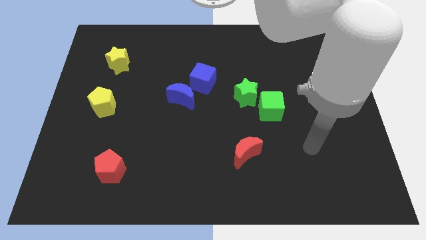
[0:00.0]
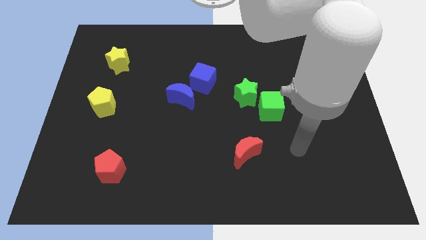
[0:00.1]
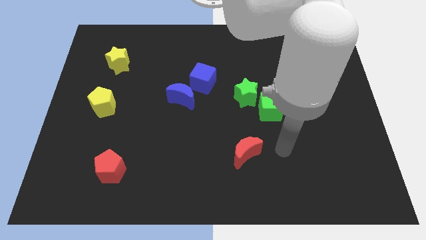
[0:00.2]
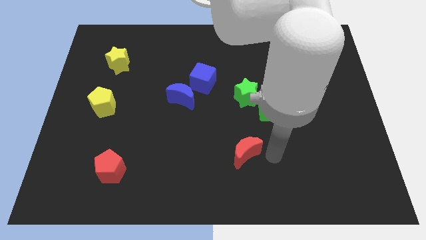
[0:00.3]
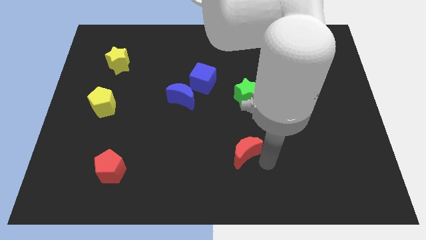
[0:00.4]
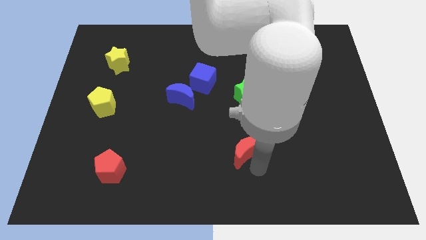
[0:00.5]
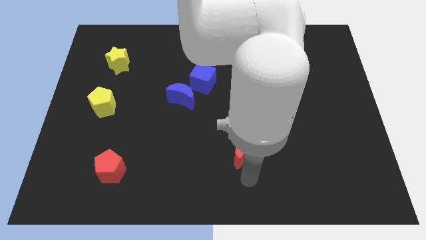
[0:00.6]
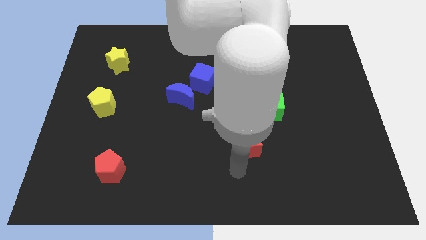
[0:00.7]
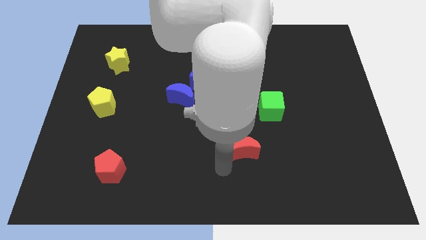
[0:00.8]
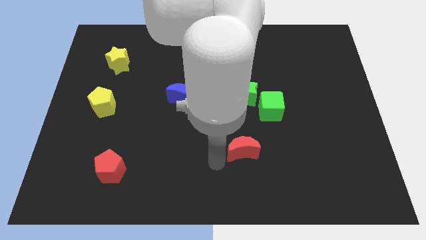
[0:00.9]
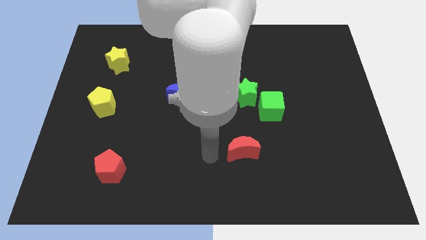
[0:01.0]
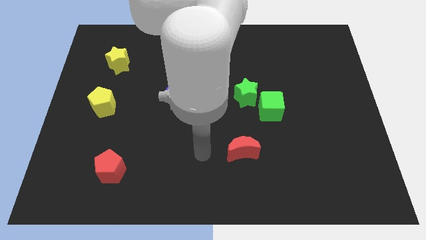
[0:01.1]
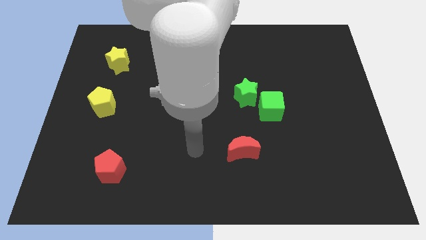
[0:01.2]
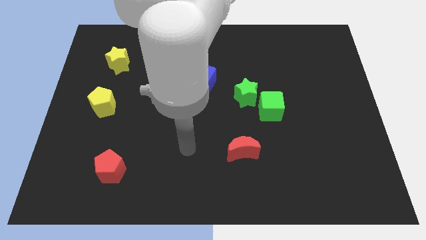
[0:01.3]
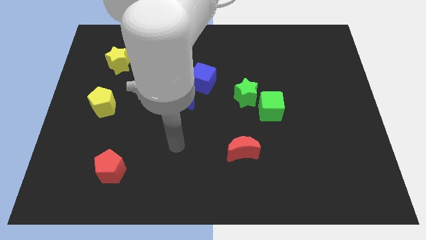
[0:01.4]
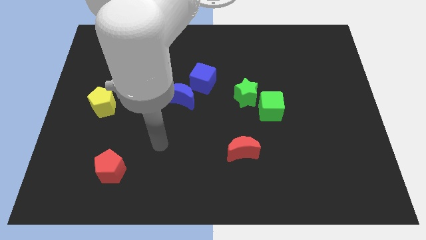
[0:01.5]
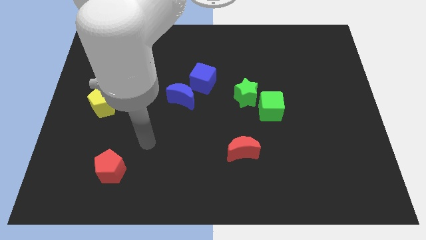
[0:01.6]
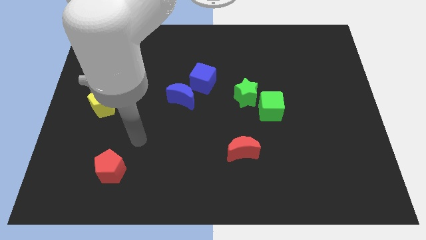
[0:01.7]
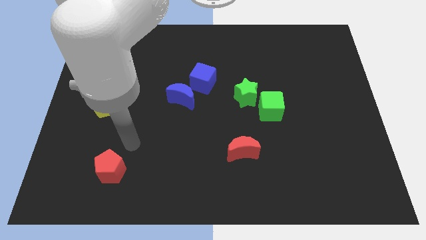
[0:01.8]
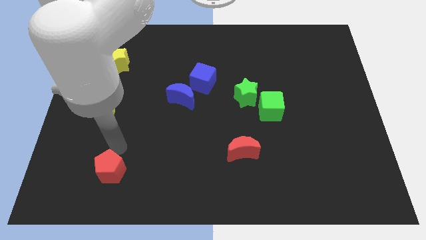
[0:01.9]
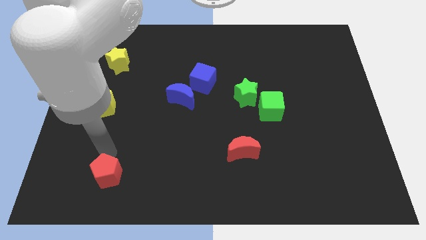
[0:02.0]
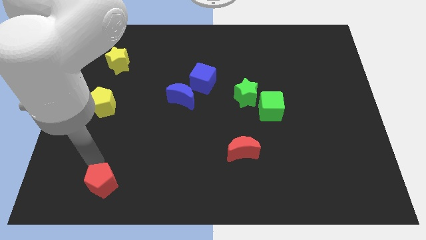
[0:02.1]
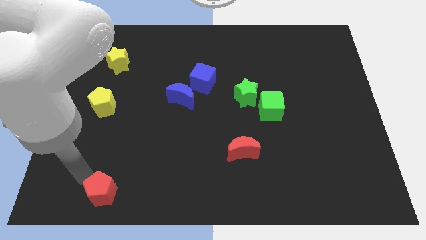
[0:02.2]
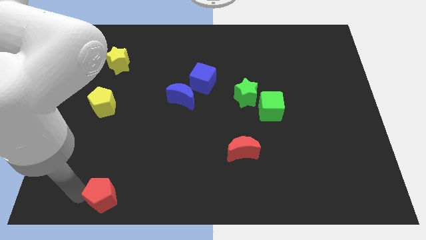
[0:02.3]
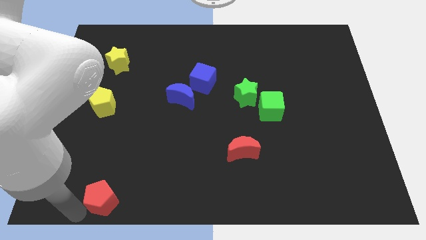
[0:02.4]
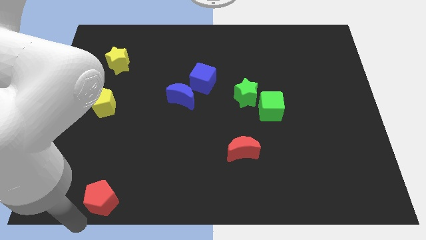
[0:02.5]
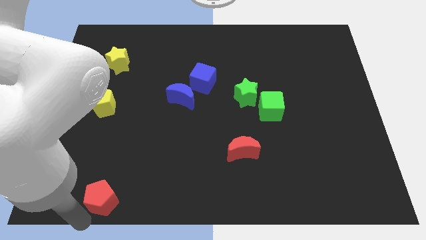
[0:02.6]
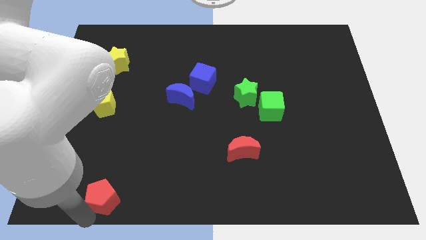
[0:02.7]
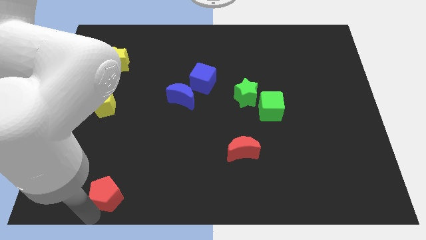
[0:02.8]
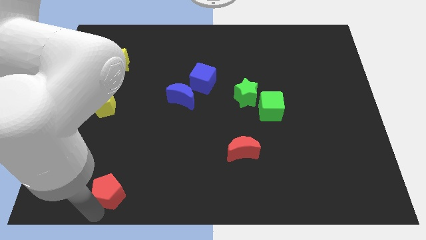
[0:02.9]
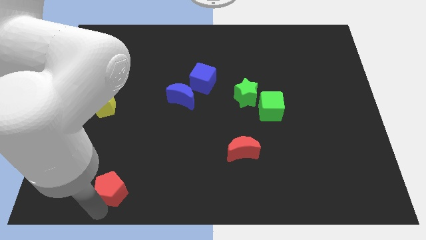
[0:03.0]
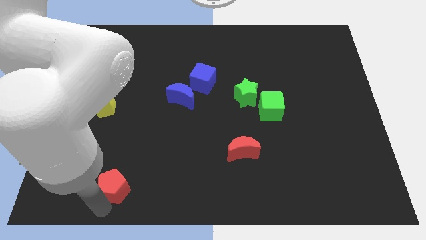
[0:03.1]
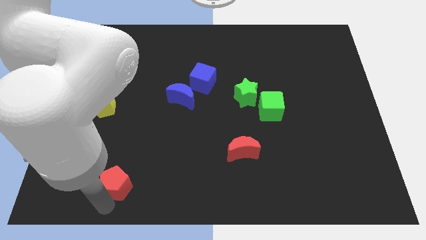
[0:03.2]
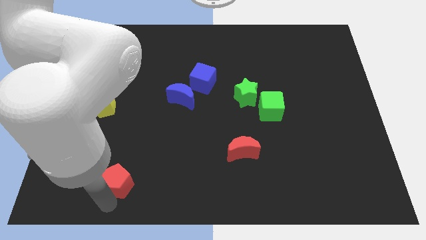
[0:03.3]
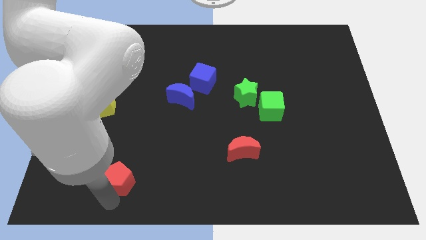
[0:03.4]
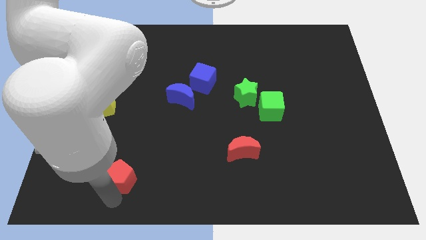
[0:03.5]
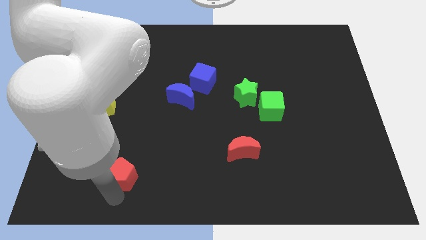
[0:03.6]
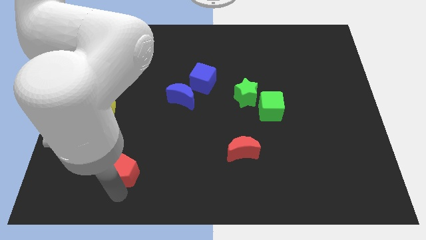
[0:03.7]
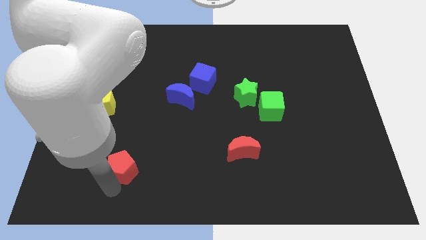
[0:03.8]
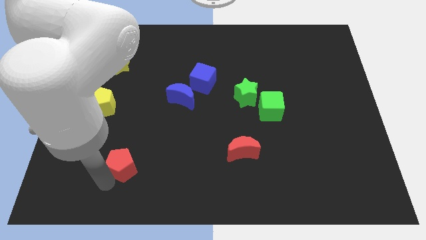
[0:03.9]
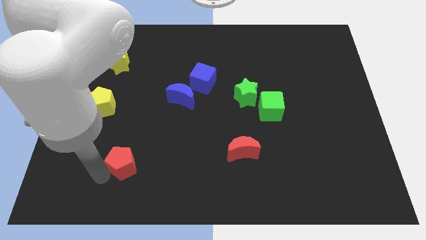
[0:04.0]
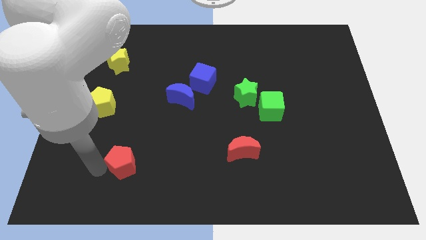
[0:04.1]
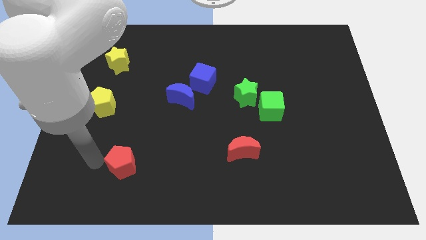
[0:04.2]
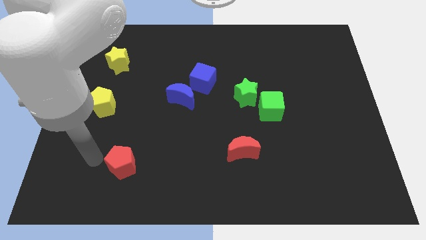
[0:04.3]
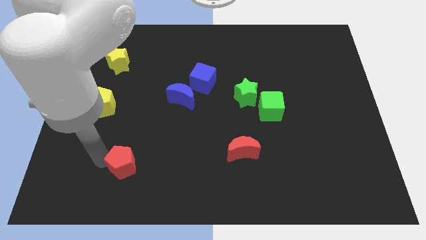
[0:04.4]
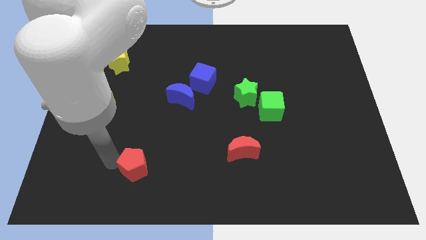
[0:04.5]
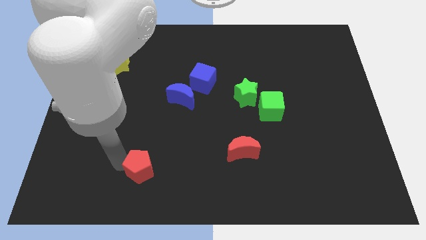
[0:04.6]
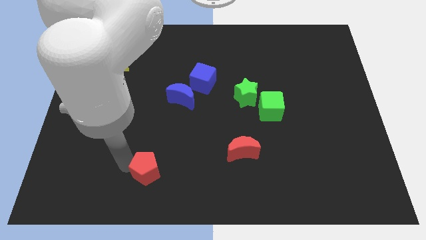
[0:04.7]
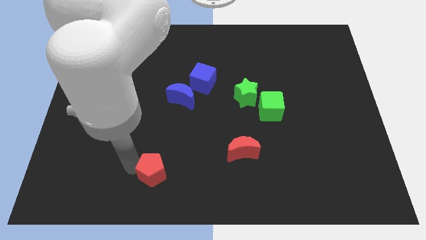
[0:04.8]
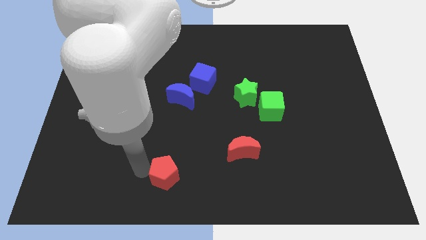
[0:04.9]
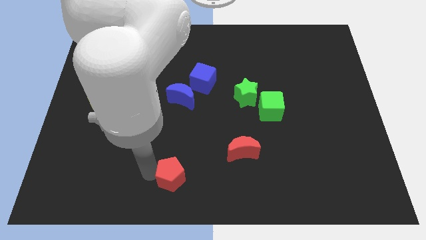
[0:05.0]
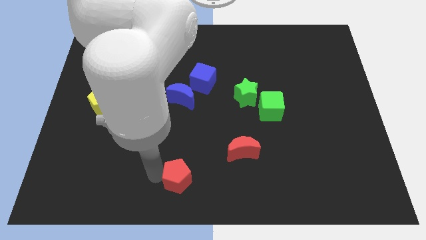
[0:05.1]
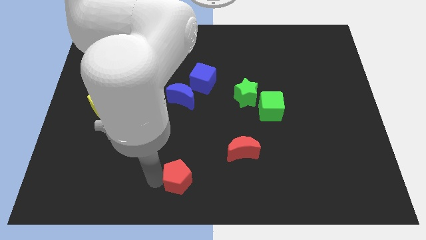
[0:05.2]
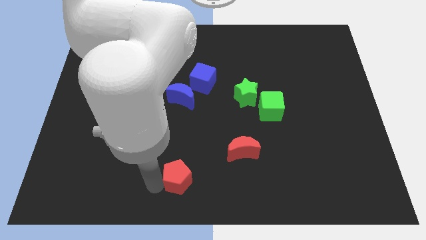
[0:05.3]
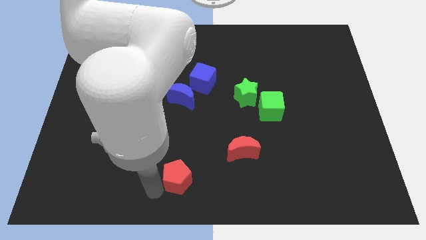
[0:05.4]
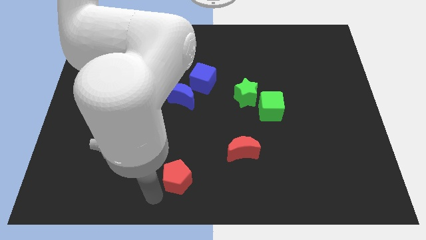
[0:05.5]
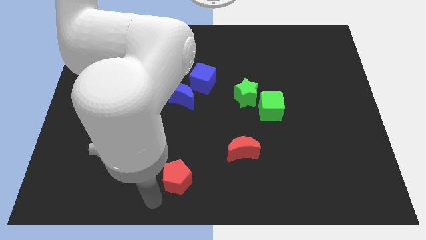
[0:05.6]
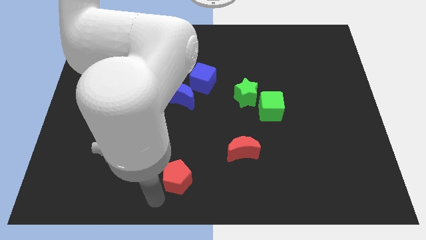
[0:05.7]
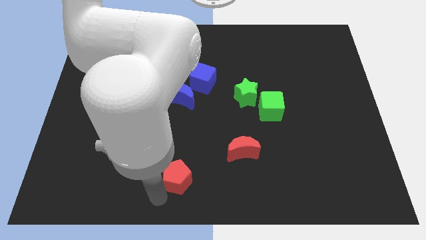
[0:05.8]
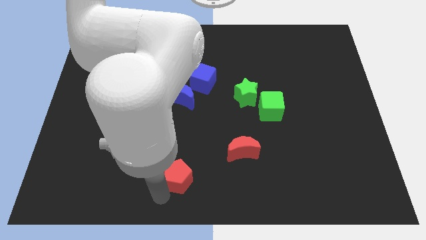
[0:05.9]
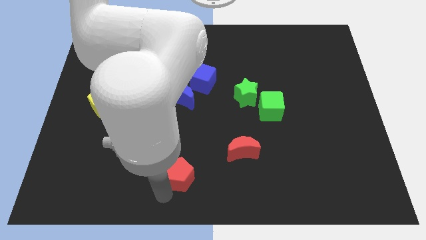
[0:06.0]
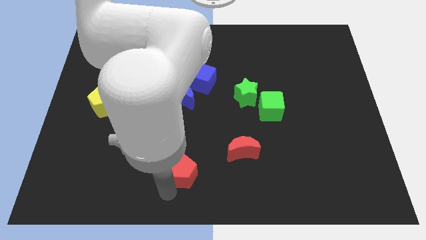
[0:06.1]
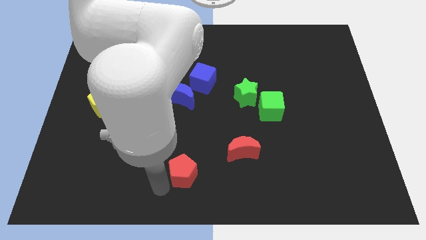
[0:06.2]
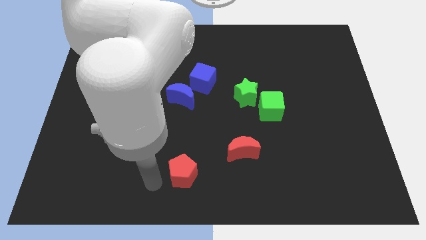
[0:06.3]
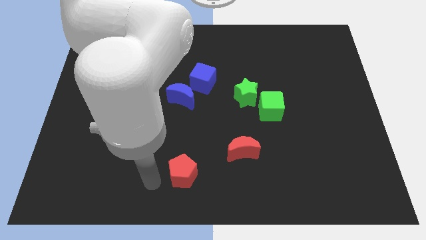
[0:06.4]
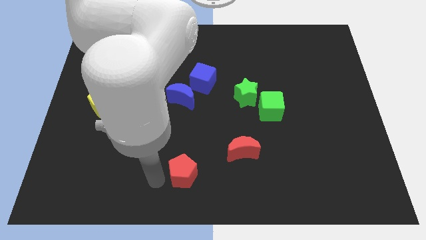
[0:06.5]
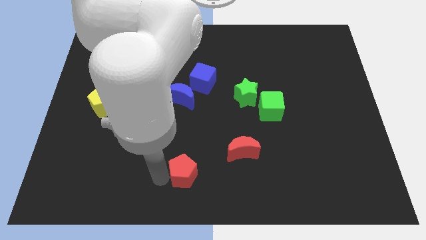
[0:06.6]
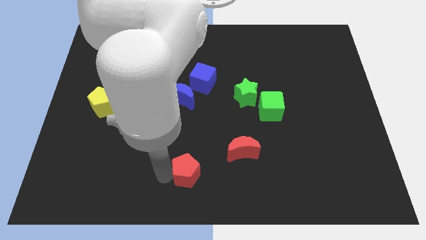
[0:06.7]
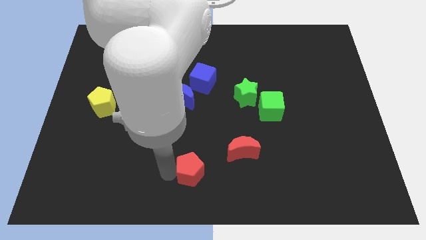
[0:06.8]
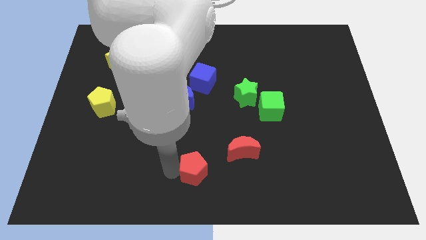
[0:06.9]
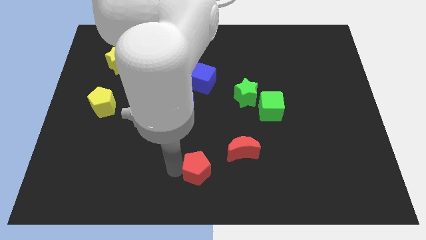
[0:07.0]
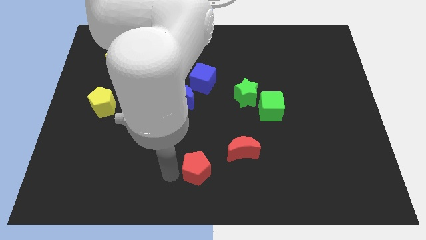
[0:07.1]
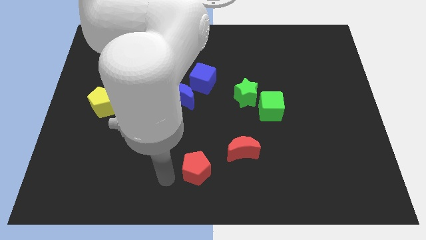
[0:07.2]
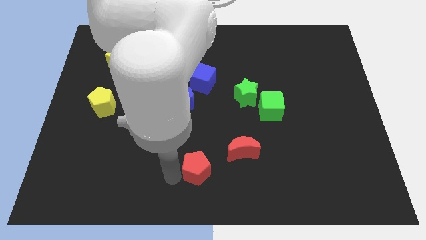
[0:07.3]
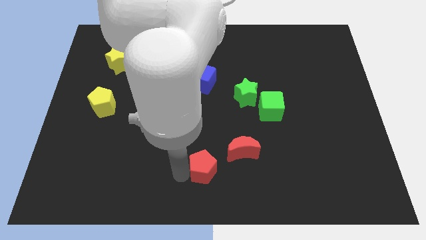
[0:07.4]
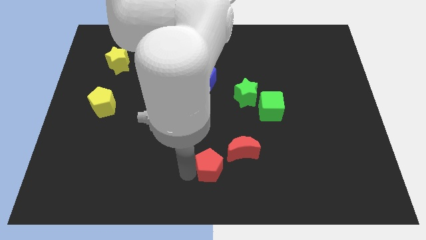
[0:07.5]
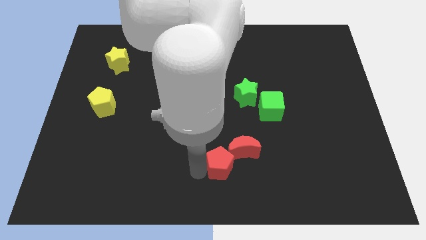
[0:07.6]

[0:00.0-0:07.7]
slide the red pentagon to the red moon
